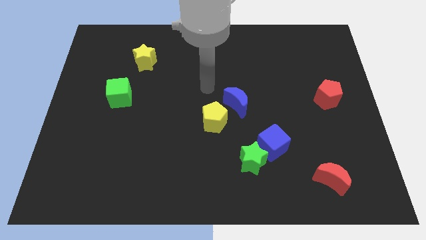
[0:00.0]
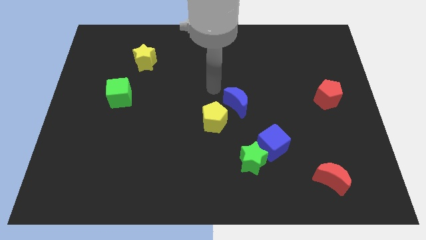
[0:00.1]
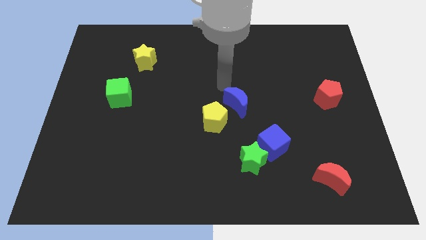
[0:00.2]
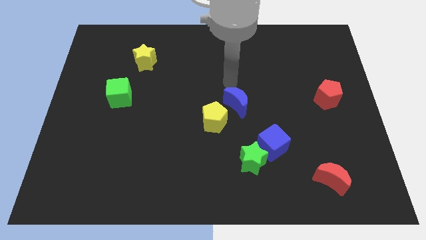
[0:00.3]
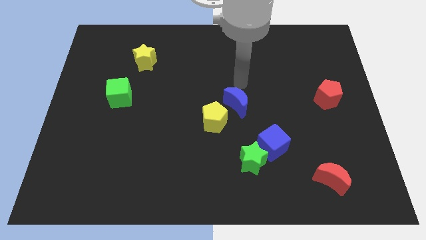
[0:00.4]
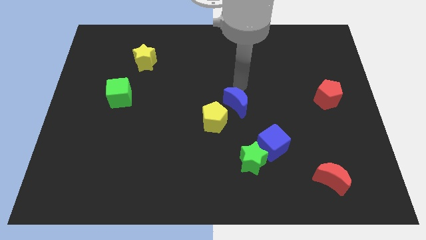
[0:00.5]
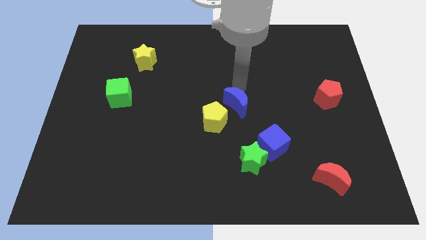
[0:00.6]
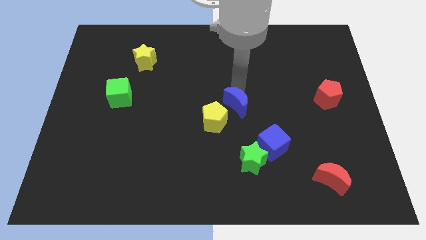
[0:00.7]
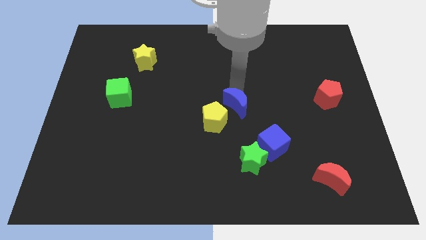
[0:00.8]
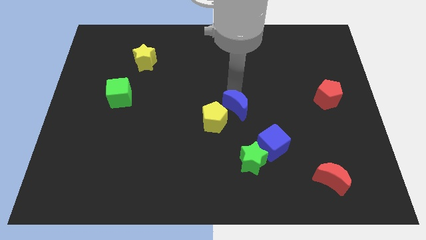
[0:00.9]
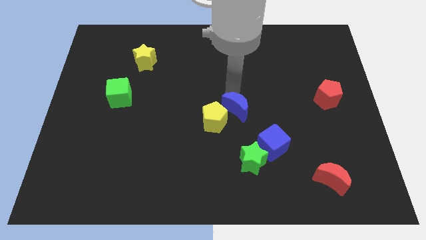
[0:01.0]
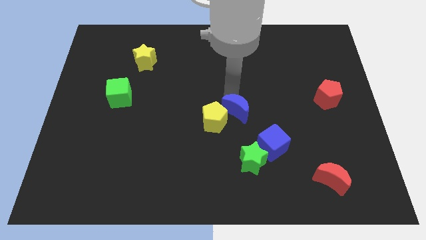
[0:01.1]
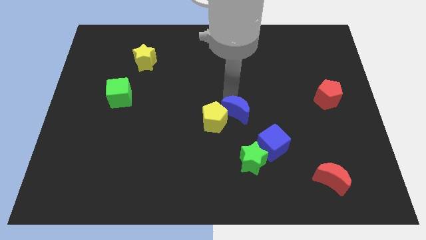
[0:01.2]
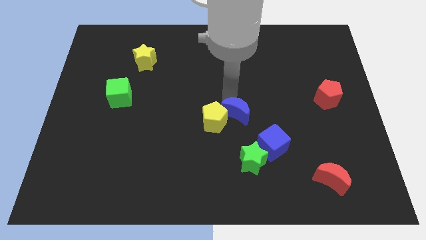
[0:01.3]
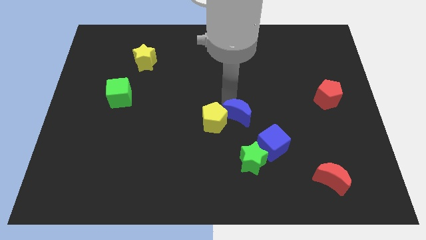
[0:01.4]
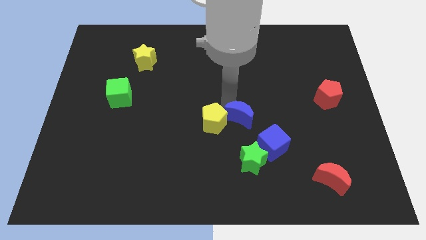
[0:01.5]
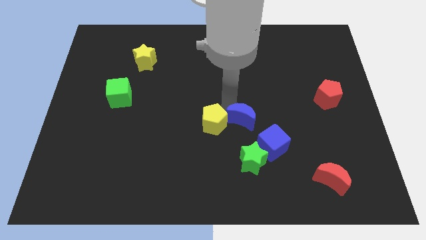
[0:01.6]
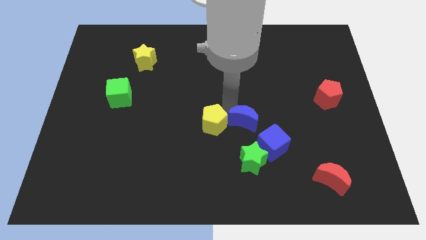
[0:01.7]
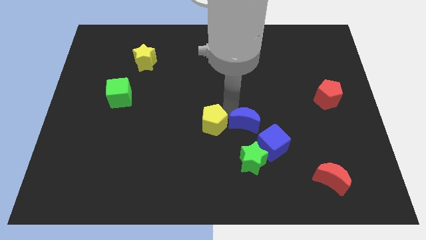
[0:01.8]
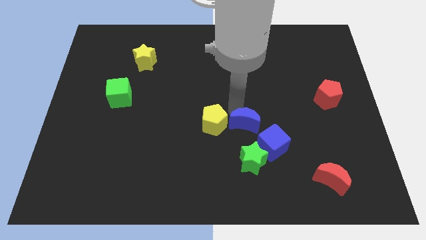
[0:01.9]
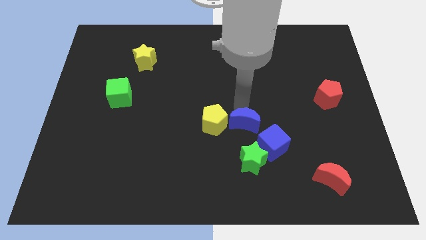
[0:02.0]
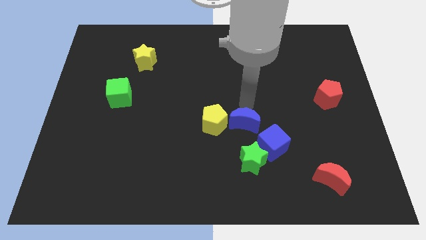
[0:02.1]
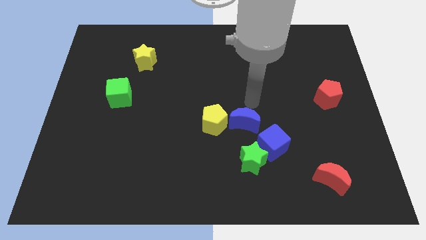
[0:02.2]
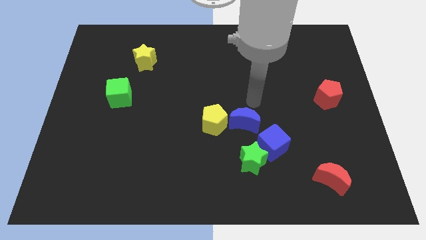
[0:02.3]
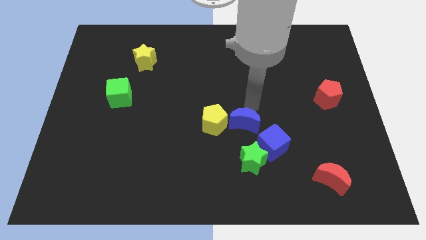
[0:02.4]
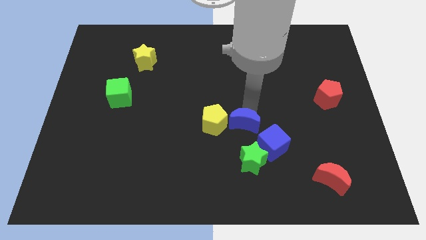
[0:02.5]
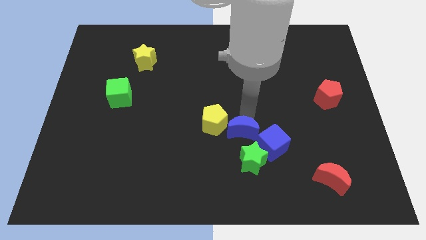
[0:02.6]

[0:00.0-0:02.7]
slightly slide the blue moon down

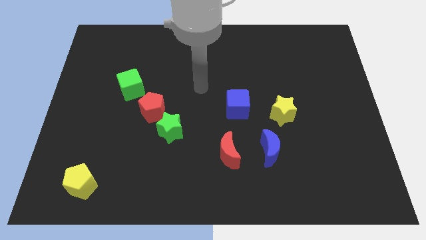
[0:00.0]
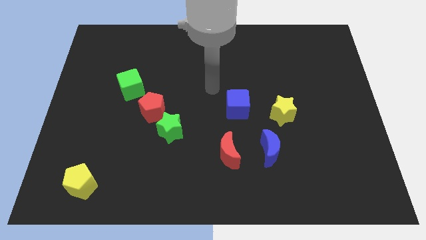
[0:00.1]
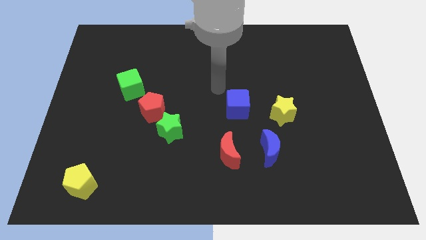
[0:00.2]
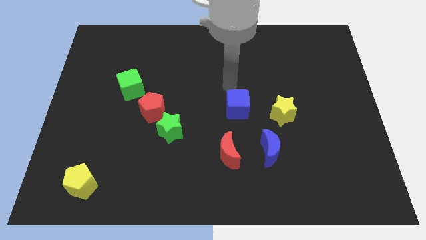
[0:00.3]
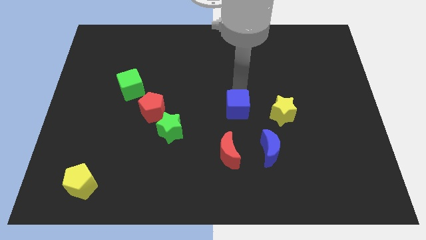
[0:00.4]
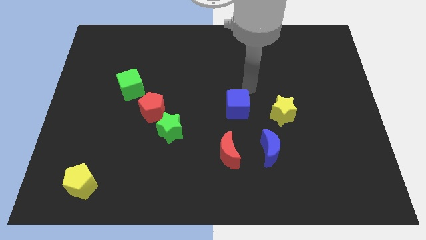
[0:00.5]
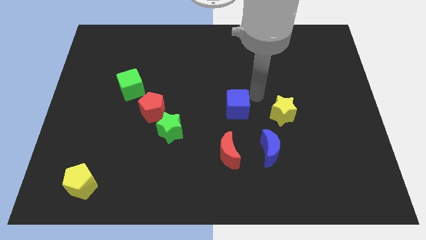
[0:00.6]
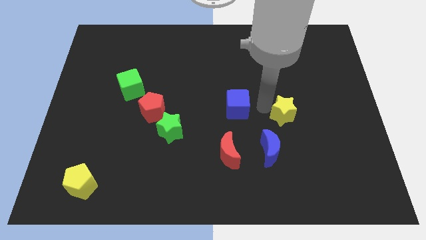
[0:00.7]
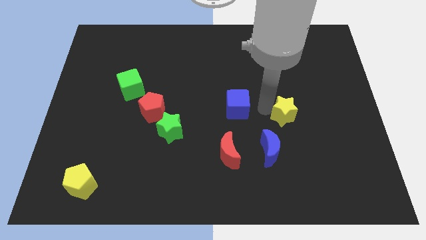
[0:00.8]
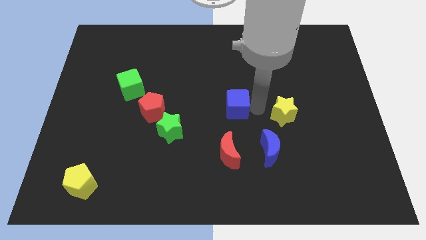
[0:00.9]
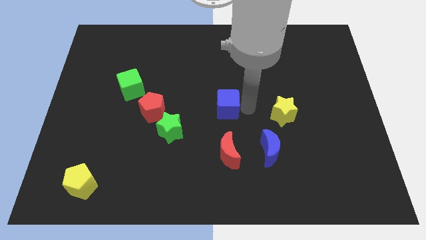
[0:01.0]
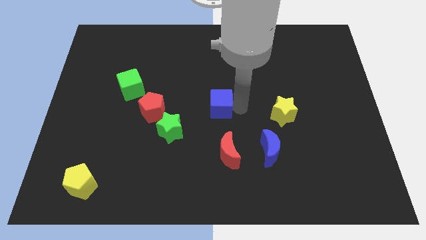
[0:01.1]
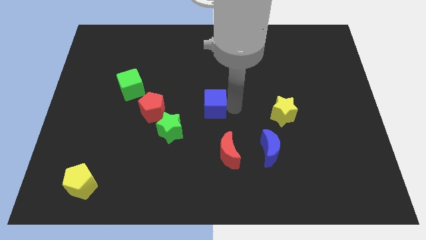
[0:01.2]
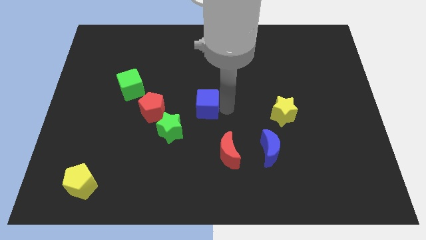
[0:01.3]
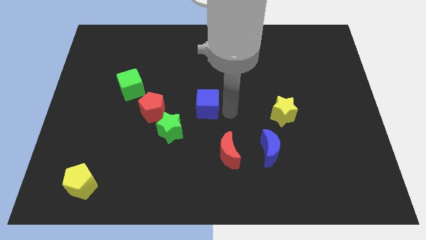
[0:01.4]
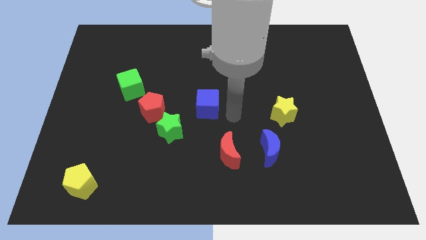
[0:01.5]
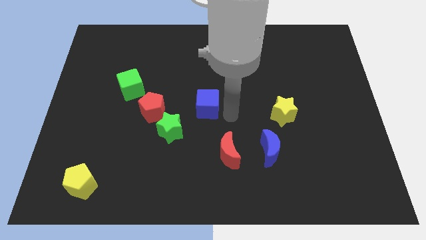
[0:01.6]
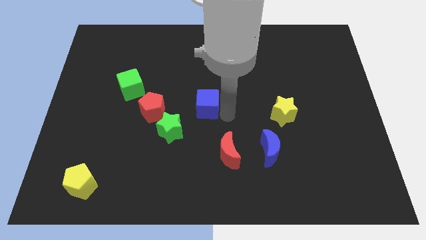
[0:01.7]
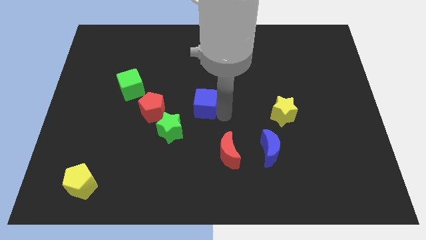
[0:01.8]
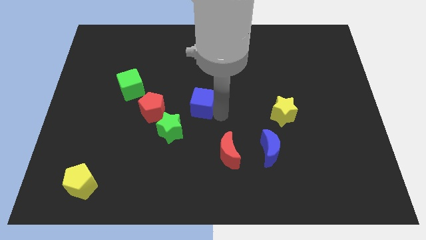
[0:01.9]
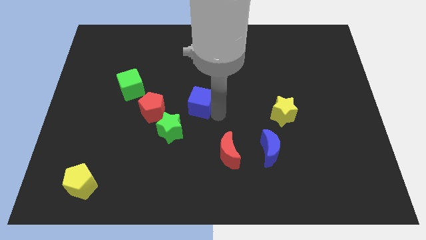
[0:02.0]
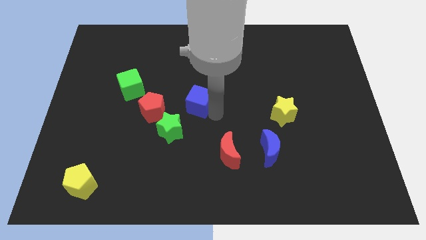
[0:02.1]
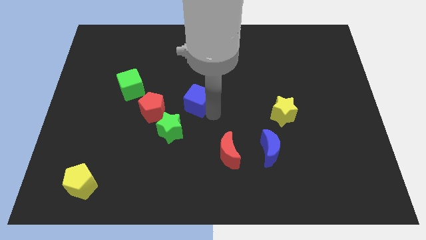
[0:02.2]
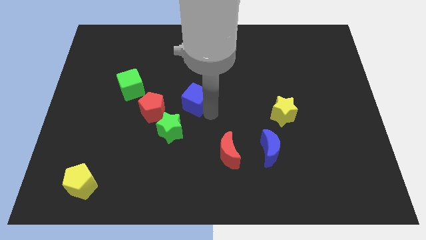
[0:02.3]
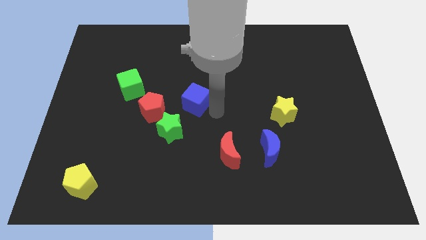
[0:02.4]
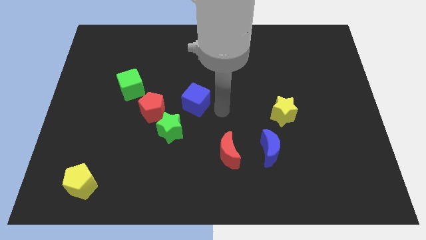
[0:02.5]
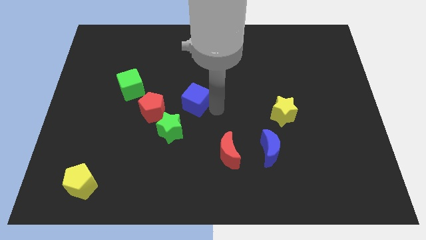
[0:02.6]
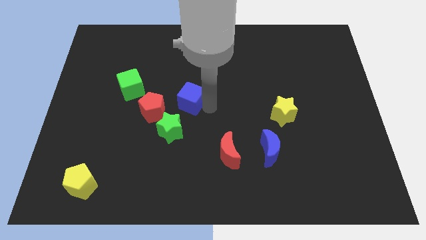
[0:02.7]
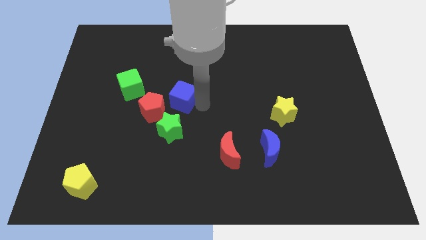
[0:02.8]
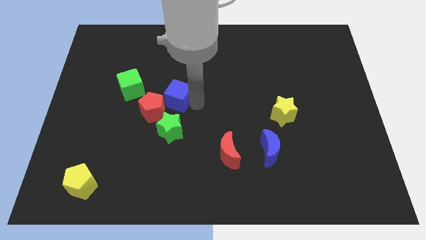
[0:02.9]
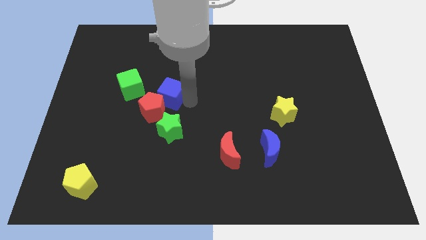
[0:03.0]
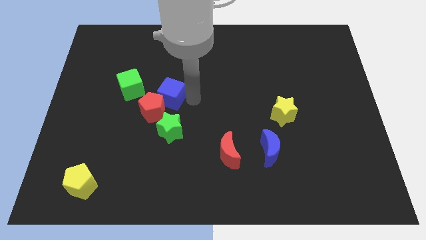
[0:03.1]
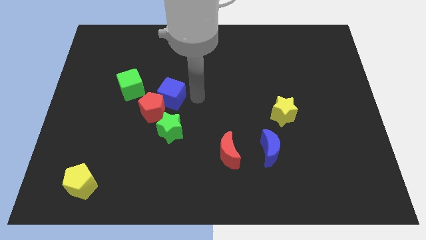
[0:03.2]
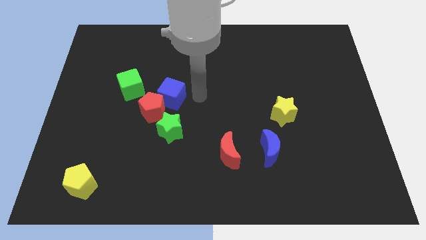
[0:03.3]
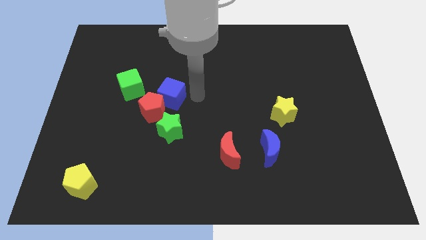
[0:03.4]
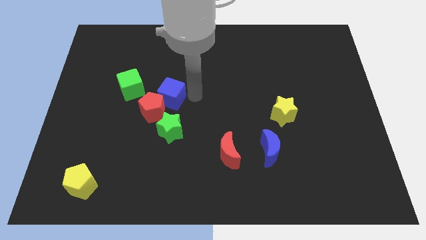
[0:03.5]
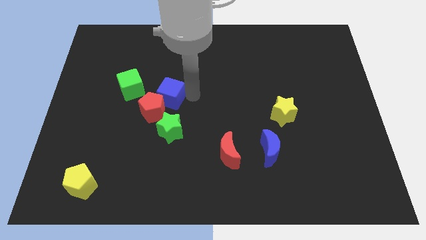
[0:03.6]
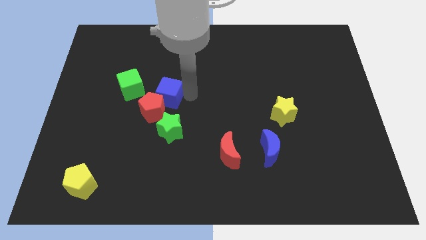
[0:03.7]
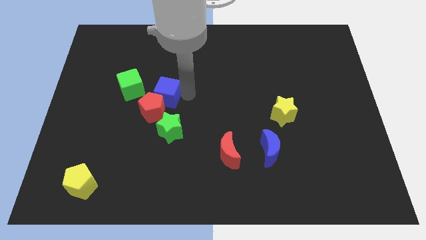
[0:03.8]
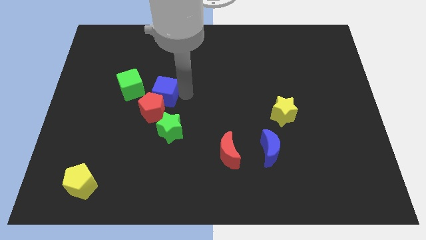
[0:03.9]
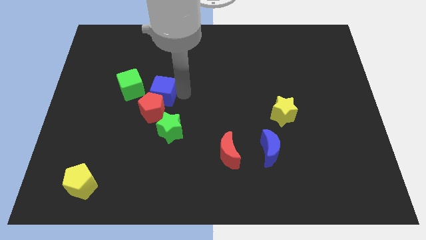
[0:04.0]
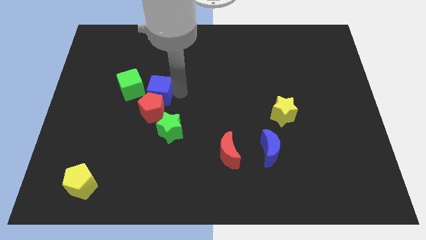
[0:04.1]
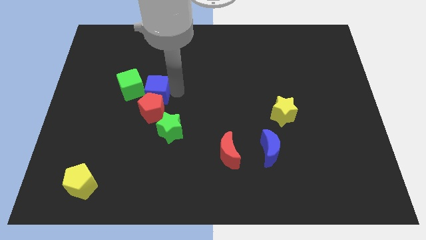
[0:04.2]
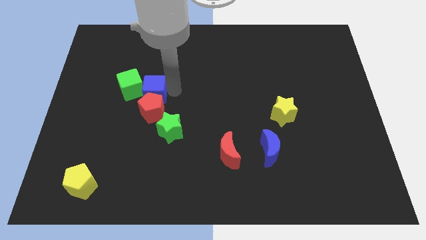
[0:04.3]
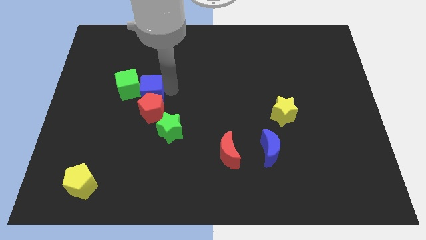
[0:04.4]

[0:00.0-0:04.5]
slide the blue cube to the left

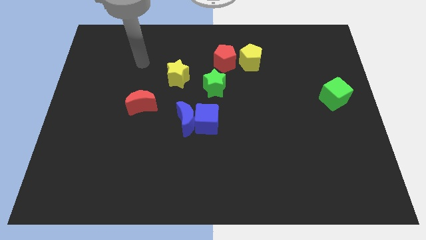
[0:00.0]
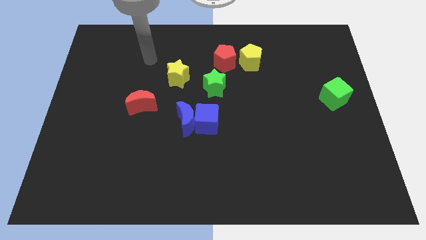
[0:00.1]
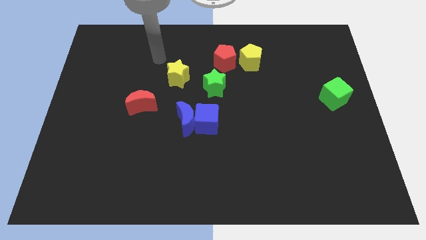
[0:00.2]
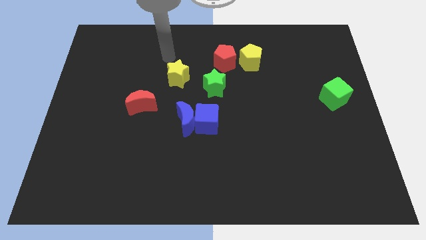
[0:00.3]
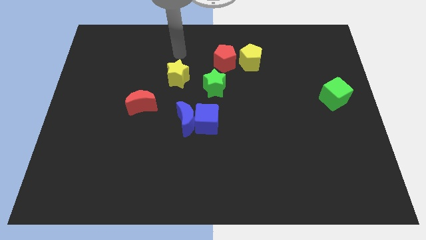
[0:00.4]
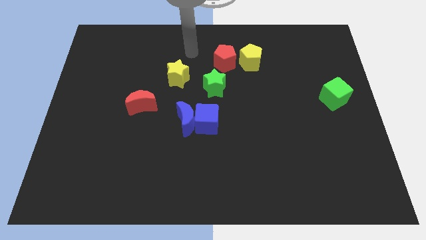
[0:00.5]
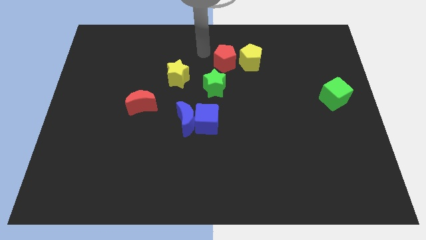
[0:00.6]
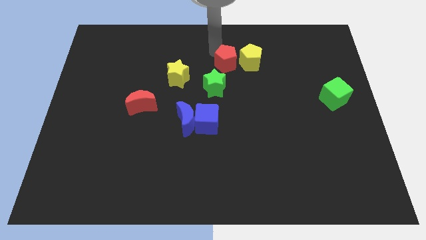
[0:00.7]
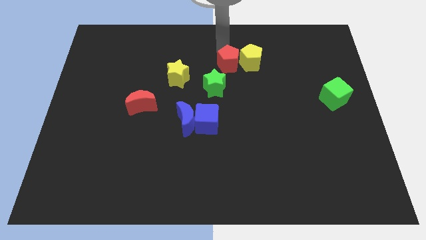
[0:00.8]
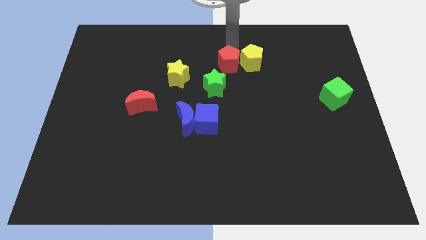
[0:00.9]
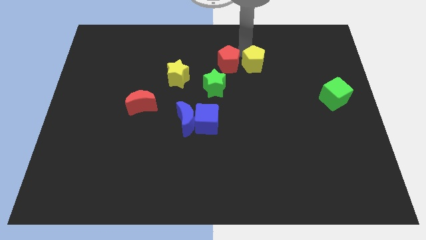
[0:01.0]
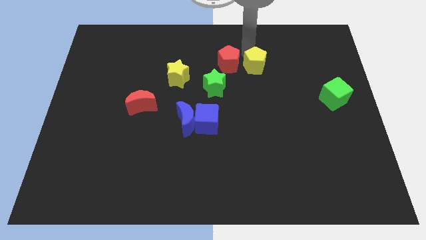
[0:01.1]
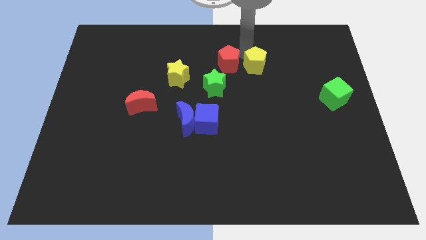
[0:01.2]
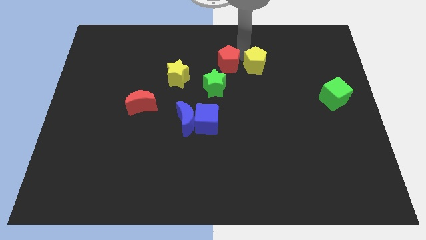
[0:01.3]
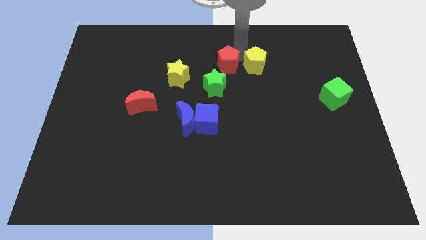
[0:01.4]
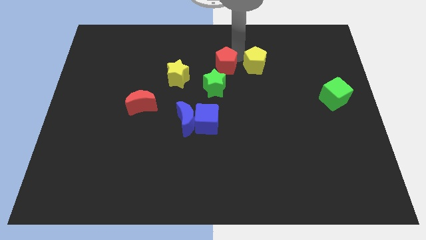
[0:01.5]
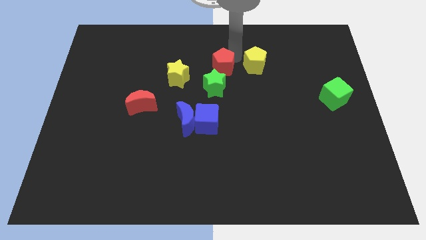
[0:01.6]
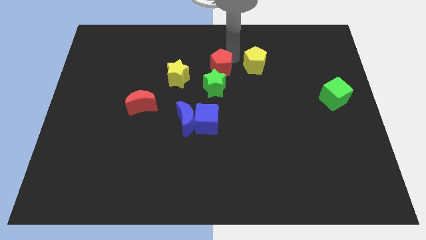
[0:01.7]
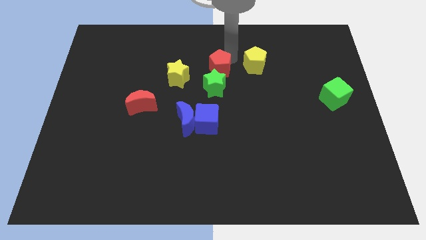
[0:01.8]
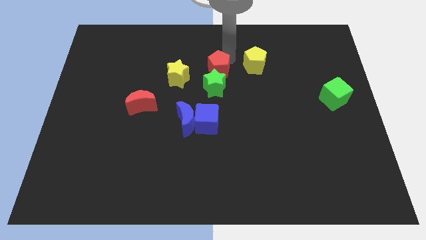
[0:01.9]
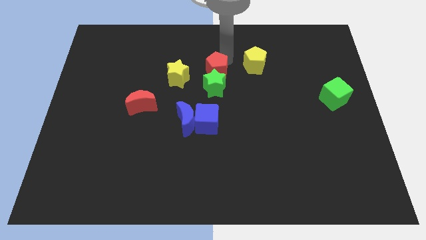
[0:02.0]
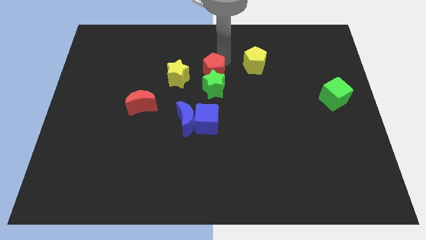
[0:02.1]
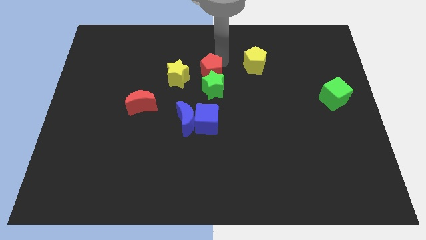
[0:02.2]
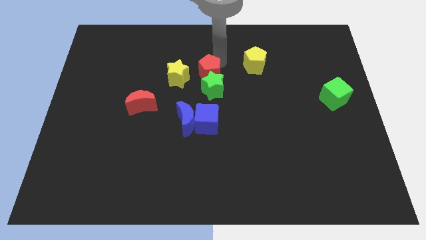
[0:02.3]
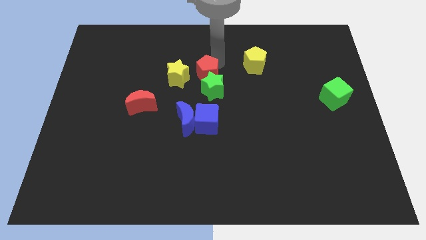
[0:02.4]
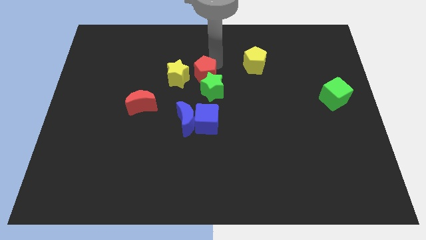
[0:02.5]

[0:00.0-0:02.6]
move the red pentagon slightly down and to the left diagonally
